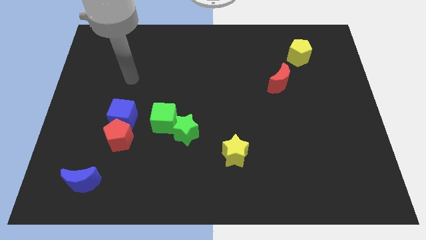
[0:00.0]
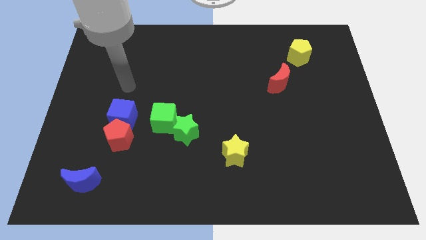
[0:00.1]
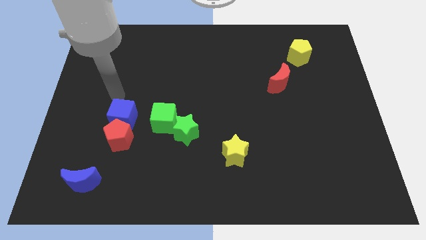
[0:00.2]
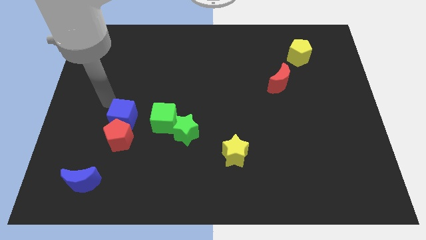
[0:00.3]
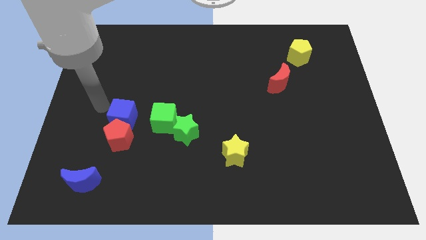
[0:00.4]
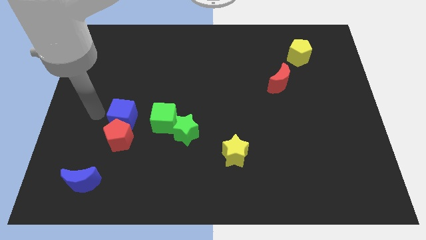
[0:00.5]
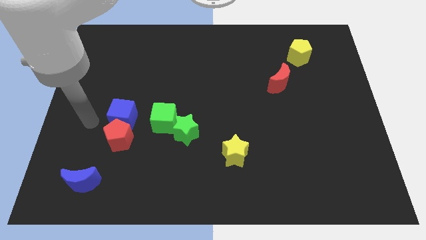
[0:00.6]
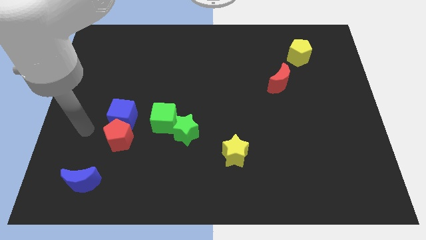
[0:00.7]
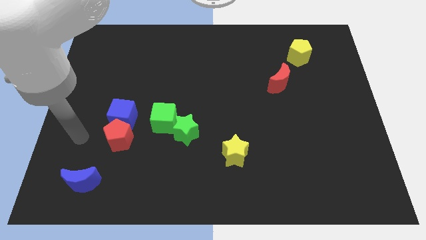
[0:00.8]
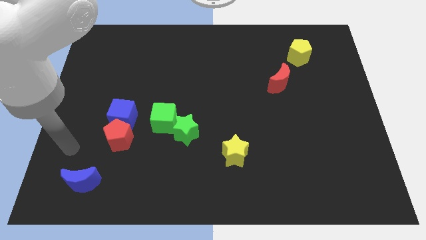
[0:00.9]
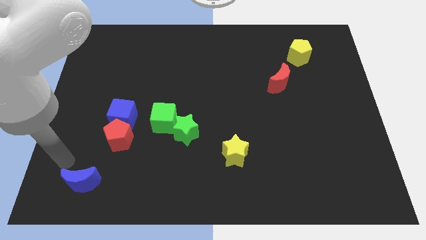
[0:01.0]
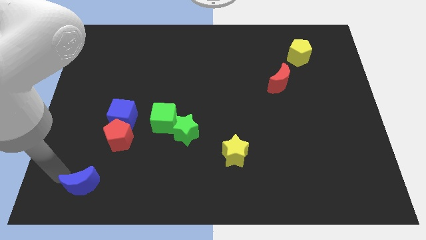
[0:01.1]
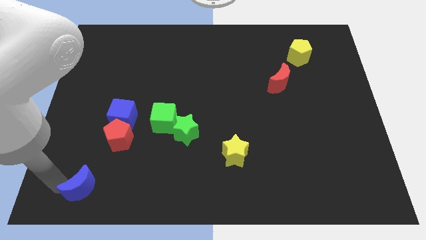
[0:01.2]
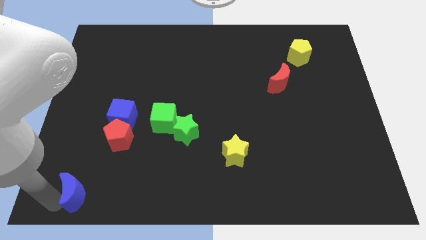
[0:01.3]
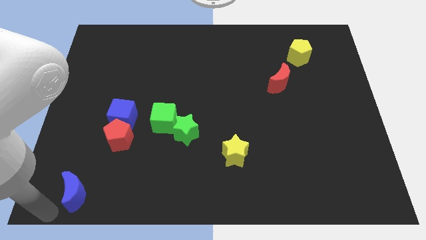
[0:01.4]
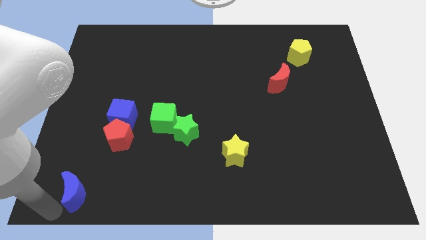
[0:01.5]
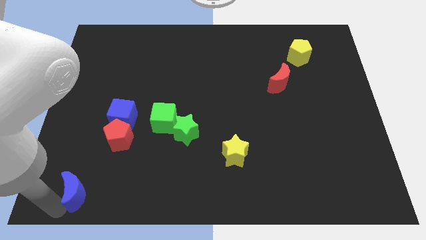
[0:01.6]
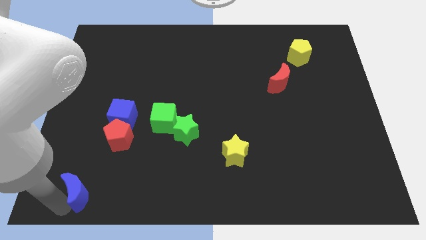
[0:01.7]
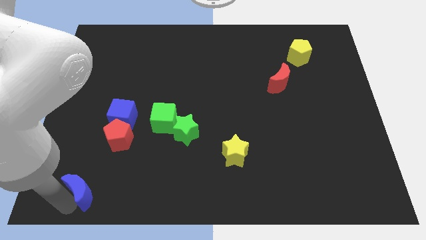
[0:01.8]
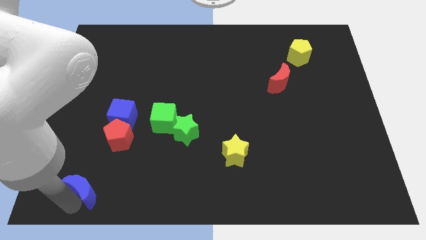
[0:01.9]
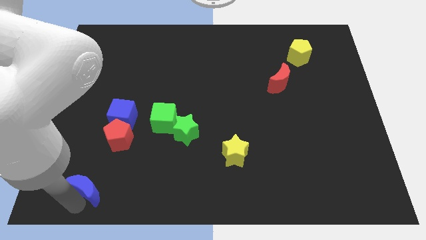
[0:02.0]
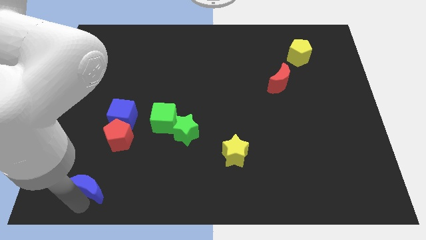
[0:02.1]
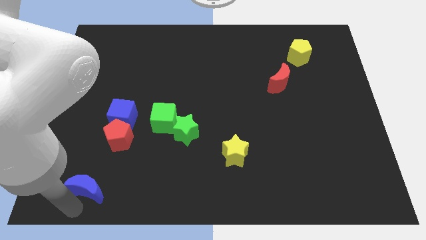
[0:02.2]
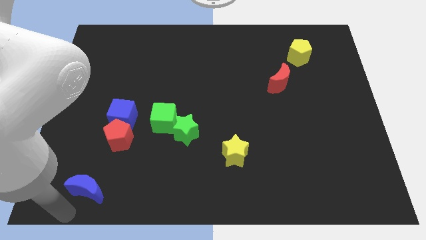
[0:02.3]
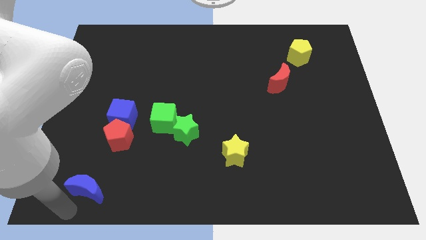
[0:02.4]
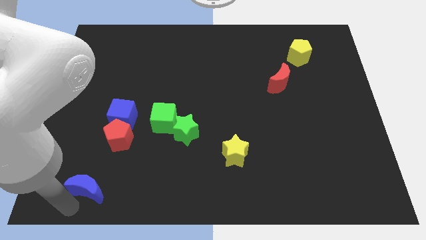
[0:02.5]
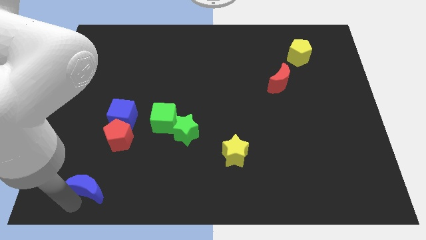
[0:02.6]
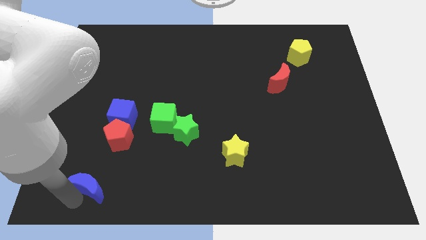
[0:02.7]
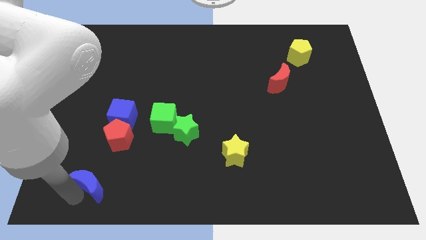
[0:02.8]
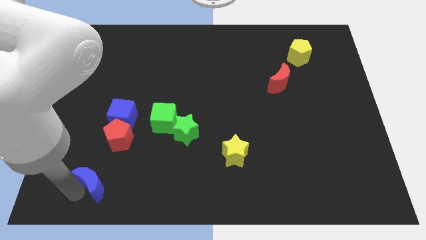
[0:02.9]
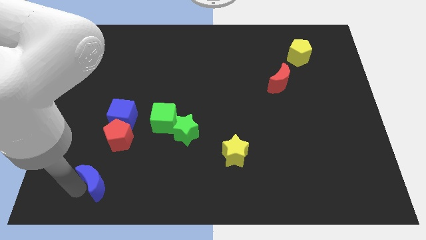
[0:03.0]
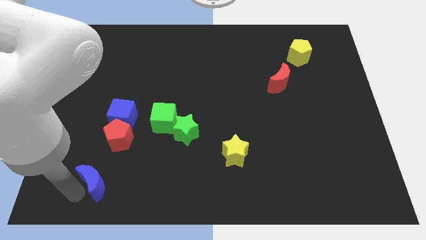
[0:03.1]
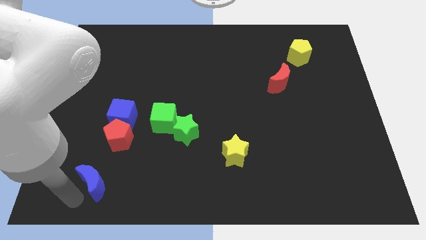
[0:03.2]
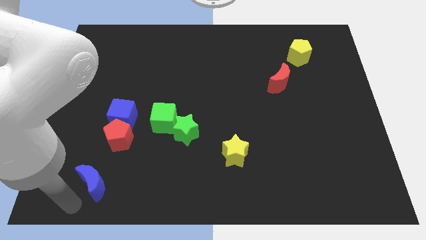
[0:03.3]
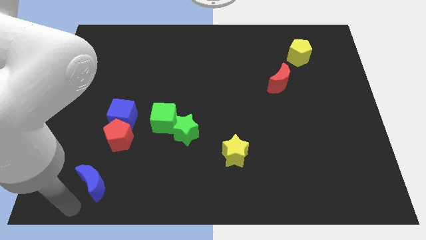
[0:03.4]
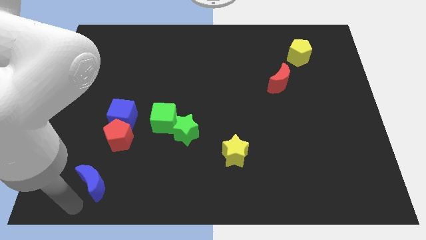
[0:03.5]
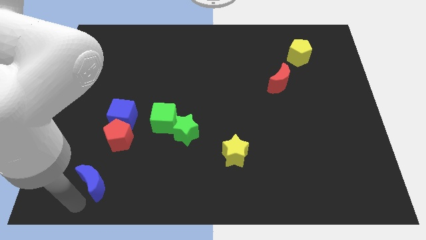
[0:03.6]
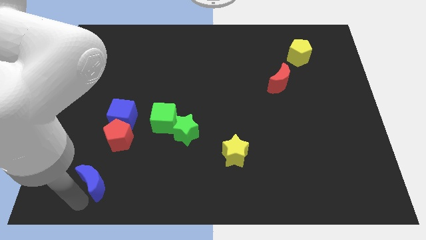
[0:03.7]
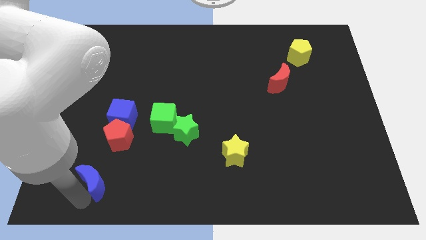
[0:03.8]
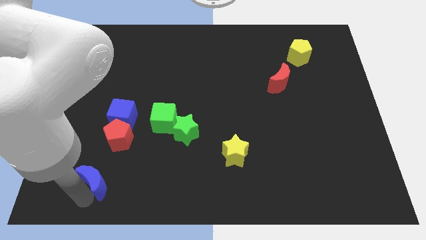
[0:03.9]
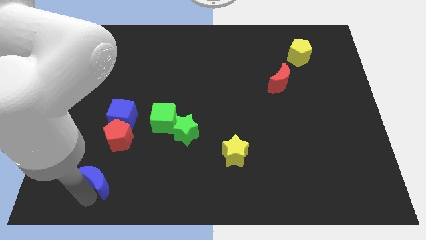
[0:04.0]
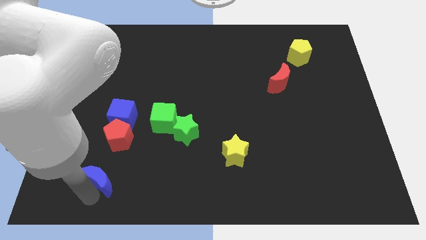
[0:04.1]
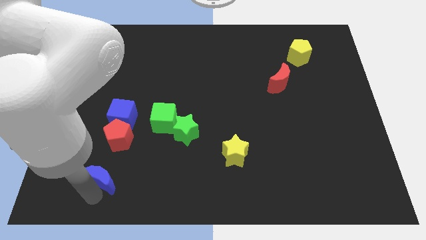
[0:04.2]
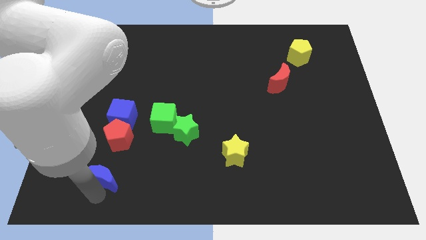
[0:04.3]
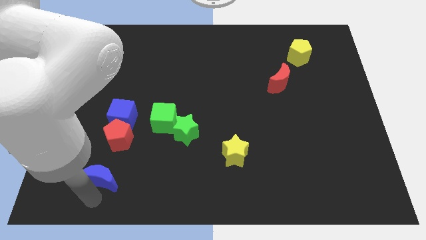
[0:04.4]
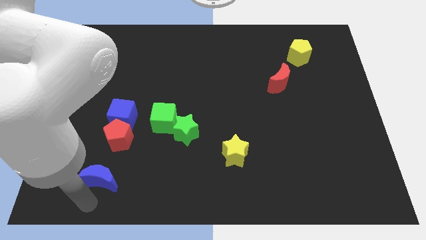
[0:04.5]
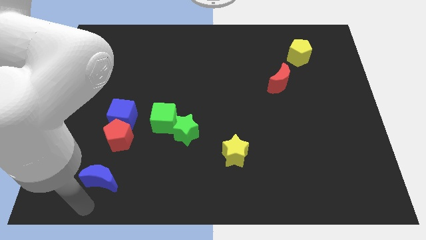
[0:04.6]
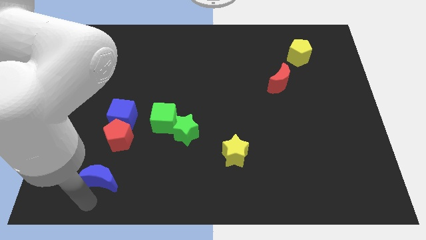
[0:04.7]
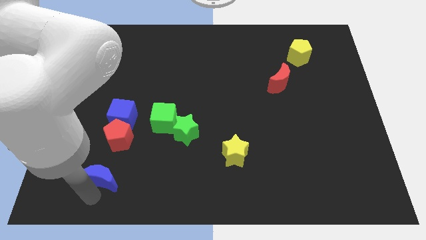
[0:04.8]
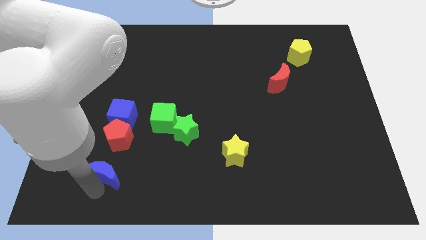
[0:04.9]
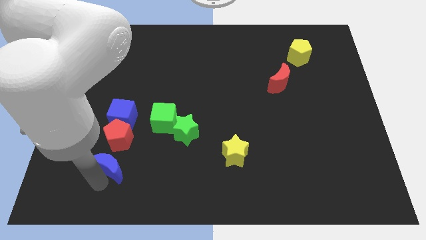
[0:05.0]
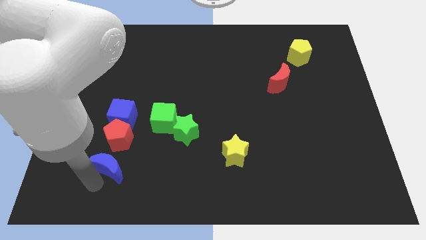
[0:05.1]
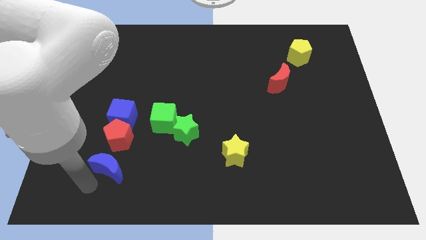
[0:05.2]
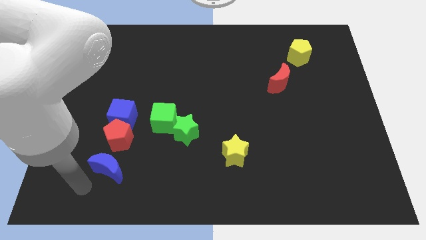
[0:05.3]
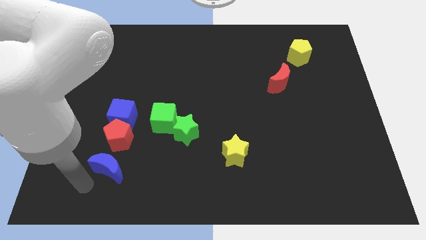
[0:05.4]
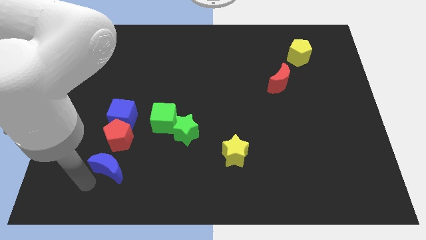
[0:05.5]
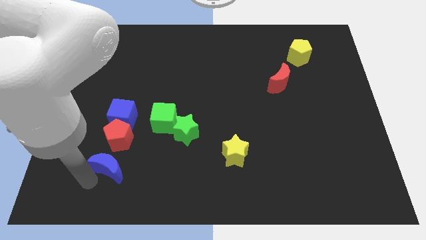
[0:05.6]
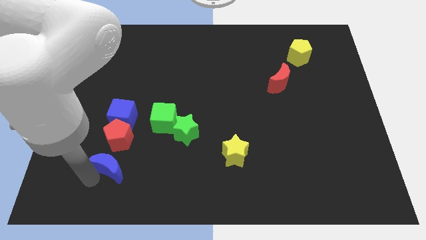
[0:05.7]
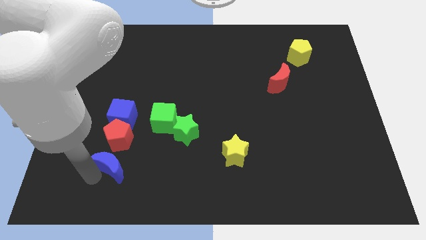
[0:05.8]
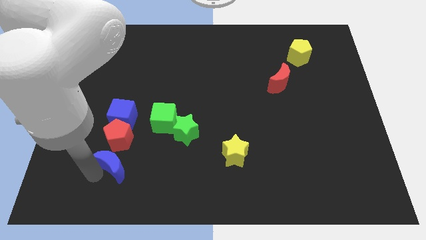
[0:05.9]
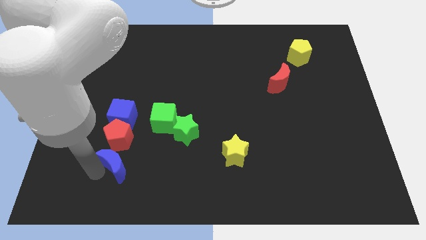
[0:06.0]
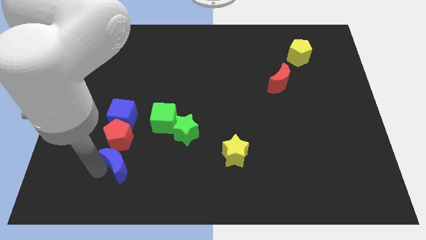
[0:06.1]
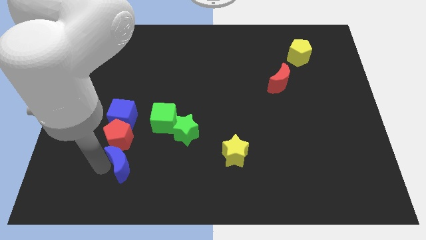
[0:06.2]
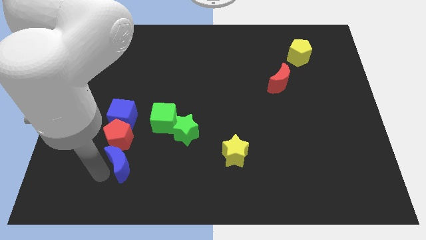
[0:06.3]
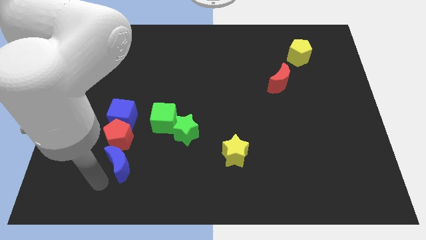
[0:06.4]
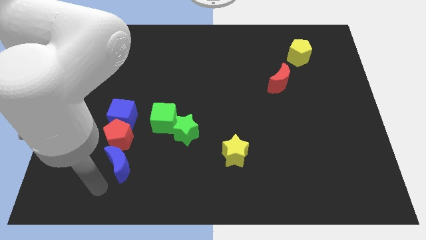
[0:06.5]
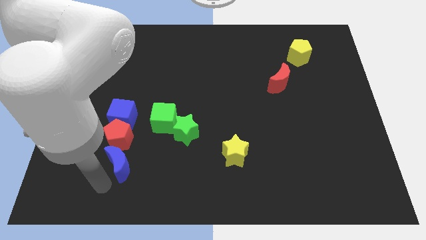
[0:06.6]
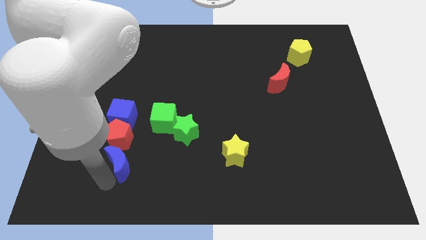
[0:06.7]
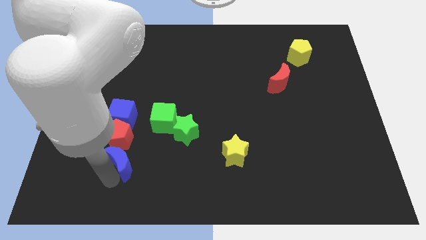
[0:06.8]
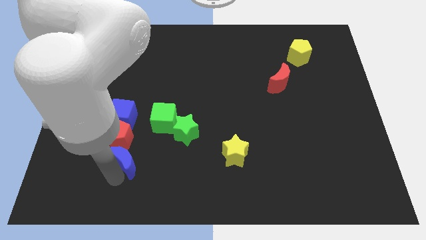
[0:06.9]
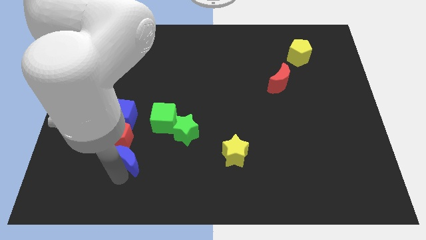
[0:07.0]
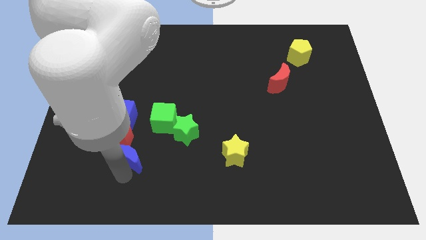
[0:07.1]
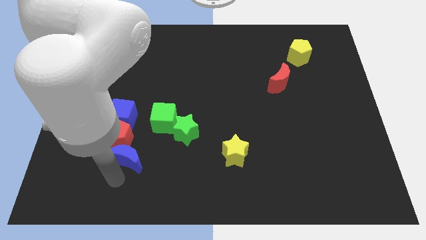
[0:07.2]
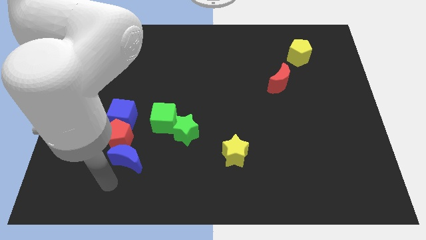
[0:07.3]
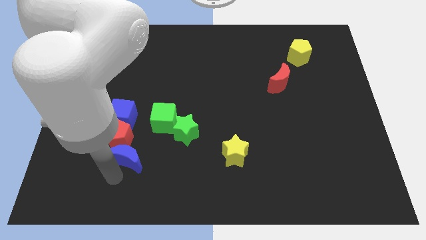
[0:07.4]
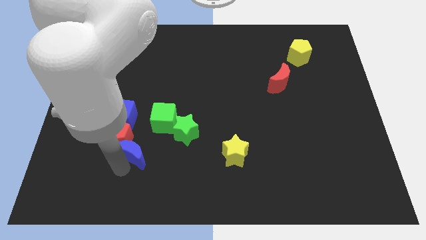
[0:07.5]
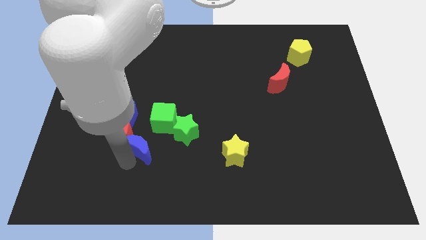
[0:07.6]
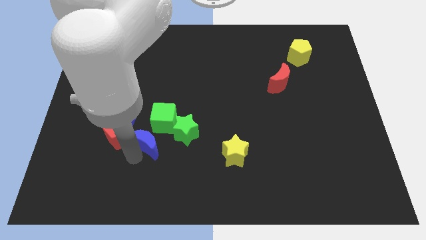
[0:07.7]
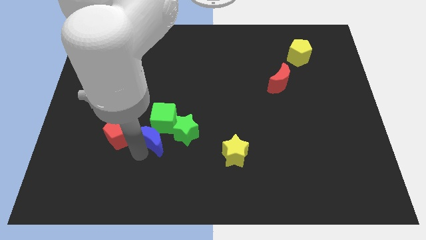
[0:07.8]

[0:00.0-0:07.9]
move the blue moon towards the green cube
